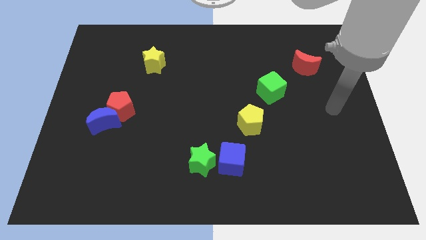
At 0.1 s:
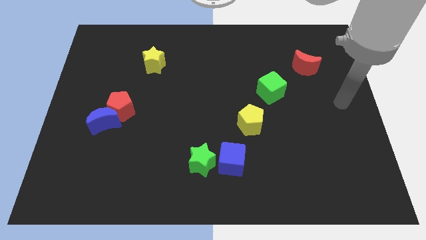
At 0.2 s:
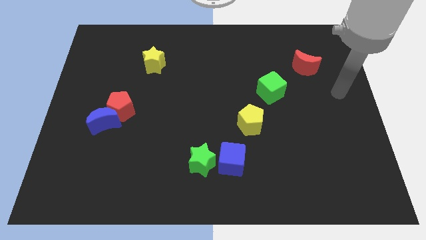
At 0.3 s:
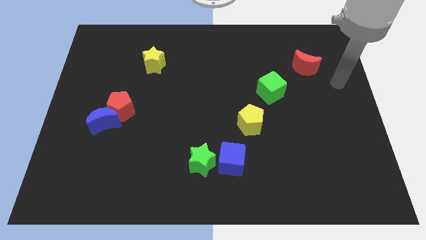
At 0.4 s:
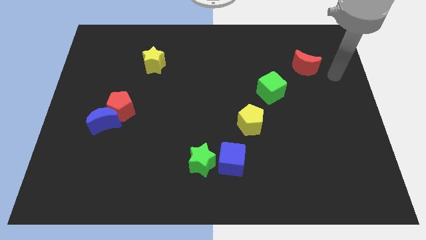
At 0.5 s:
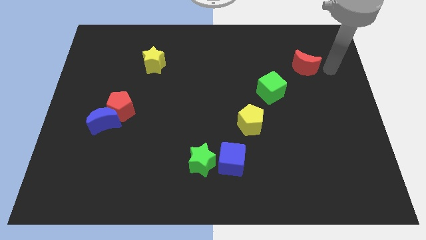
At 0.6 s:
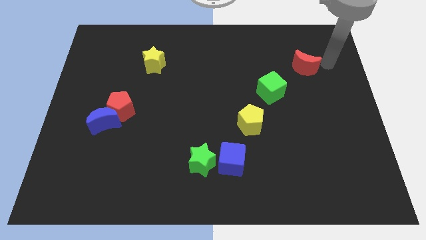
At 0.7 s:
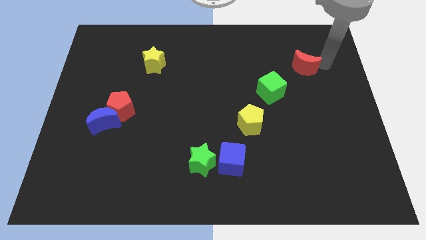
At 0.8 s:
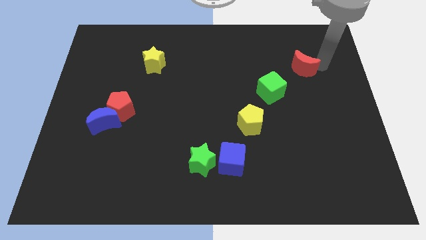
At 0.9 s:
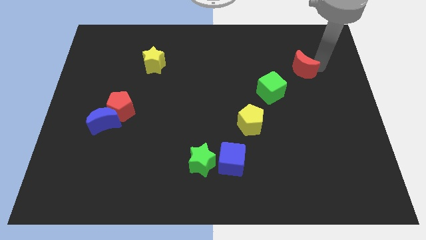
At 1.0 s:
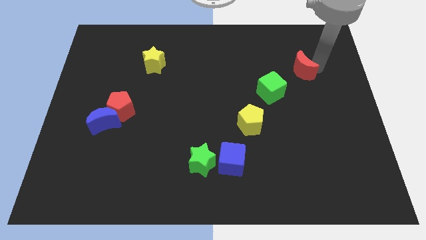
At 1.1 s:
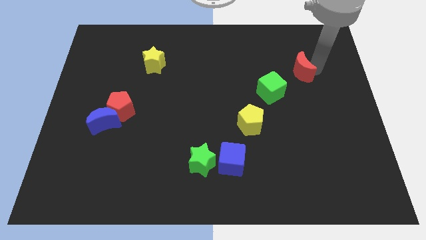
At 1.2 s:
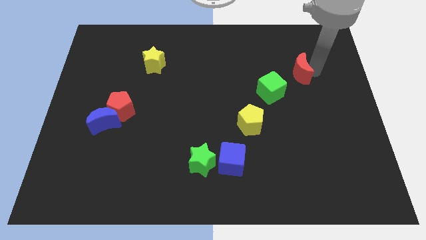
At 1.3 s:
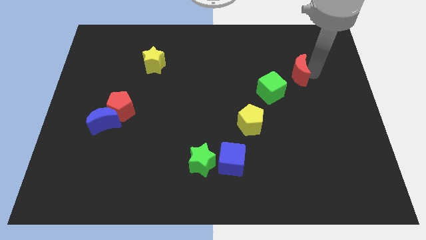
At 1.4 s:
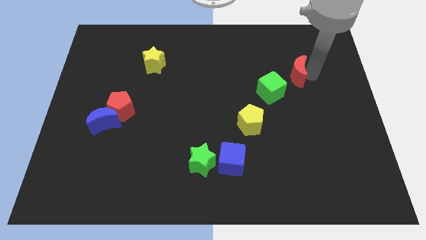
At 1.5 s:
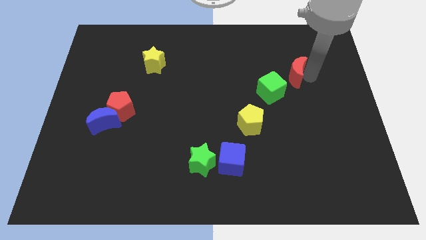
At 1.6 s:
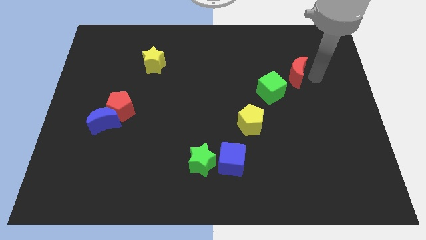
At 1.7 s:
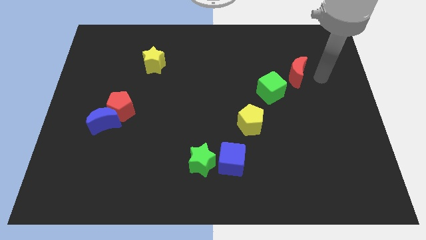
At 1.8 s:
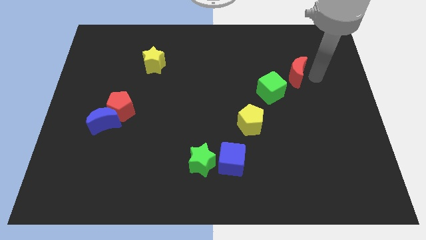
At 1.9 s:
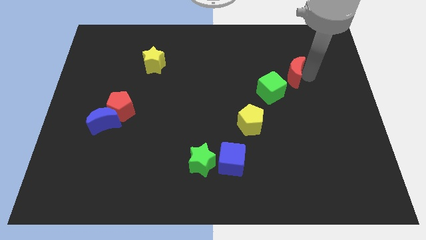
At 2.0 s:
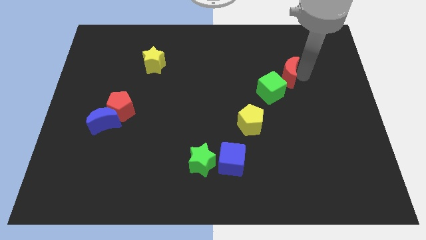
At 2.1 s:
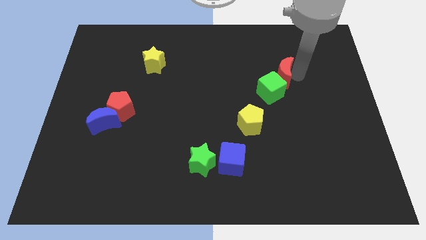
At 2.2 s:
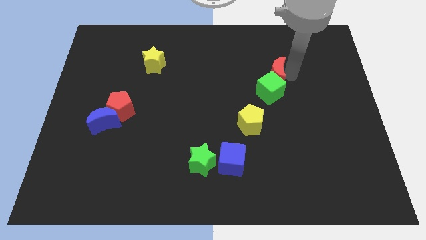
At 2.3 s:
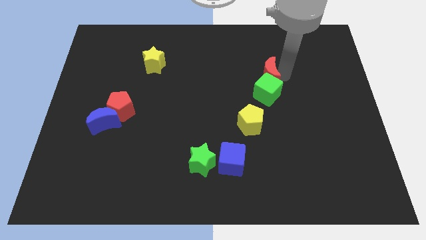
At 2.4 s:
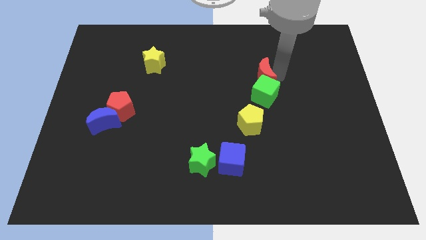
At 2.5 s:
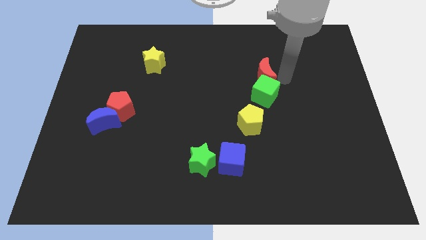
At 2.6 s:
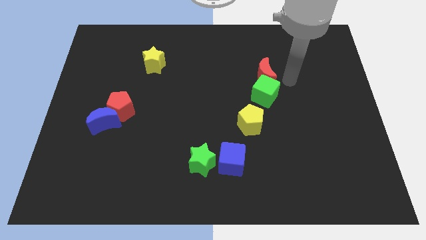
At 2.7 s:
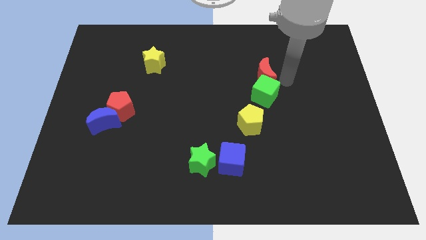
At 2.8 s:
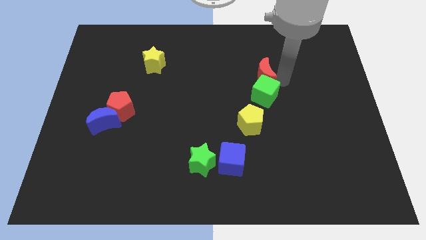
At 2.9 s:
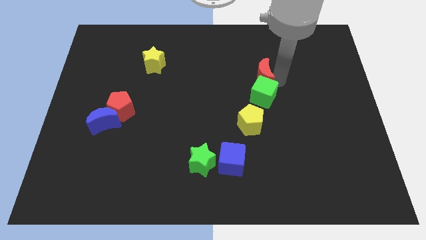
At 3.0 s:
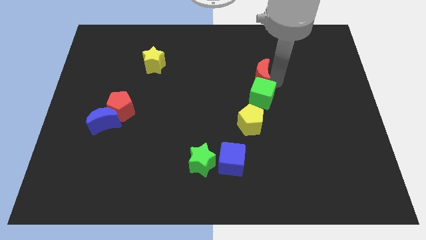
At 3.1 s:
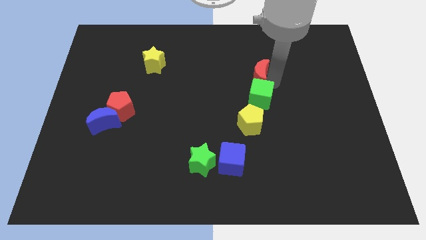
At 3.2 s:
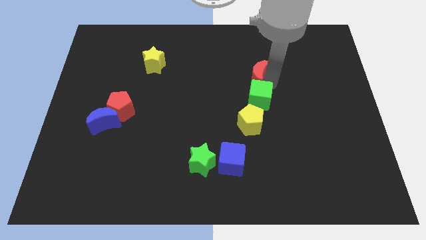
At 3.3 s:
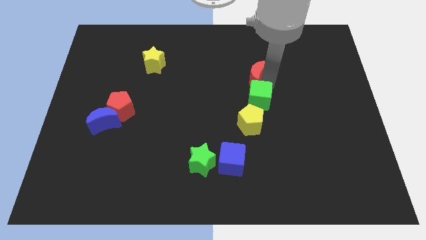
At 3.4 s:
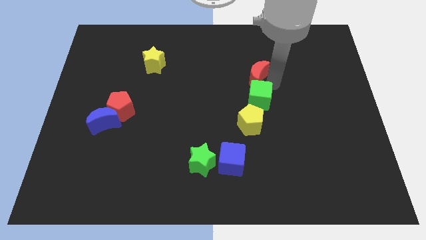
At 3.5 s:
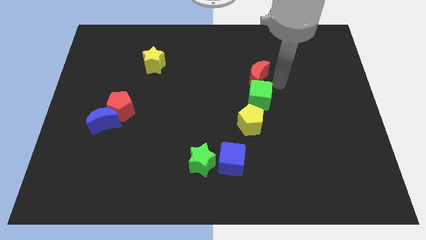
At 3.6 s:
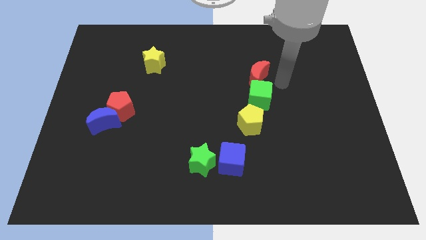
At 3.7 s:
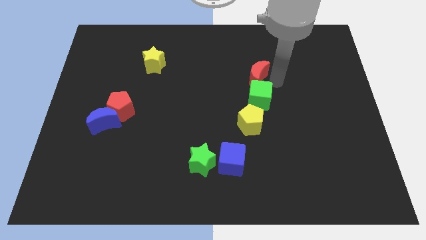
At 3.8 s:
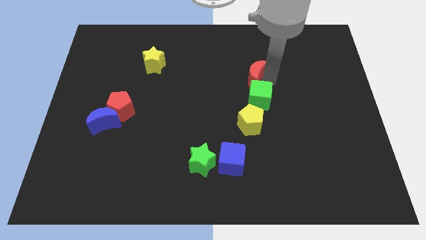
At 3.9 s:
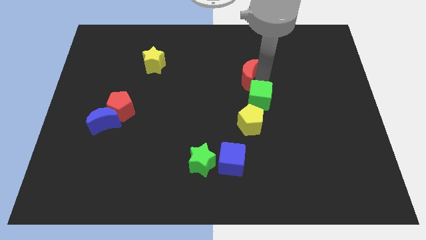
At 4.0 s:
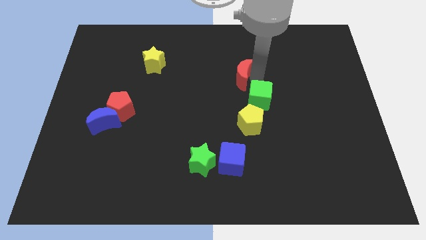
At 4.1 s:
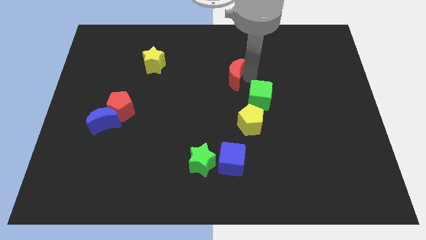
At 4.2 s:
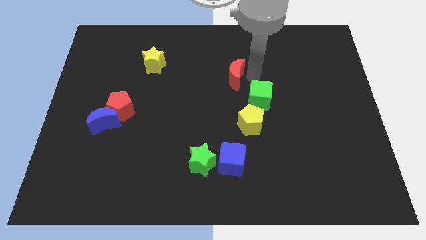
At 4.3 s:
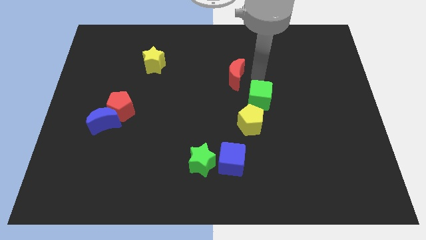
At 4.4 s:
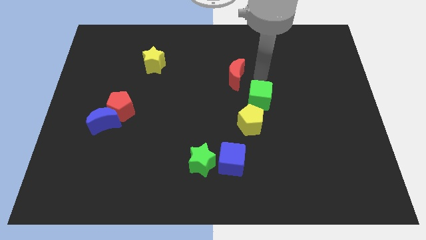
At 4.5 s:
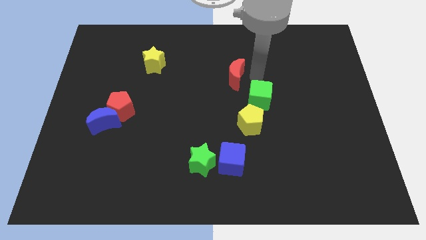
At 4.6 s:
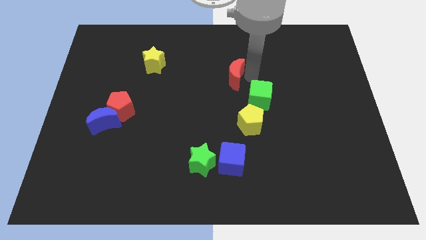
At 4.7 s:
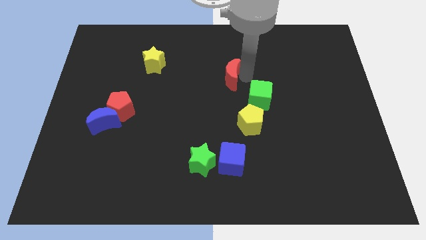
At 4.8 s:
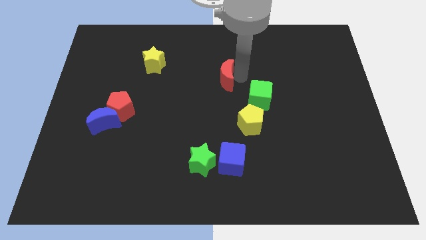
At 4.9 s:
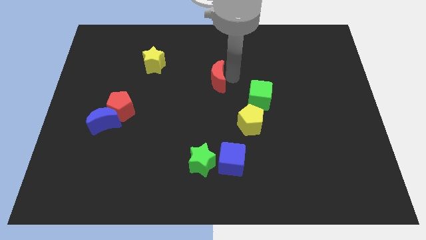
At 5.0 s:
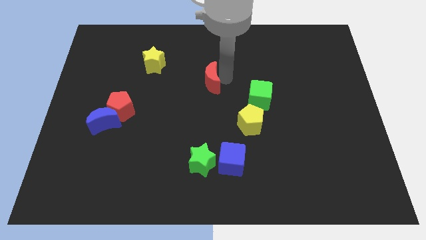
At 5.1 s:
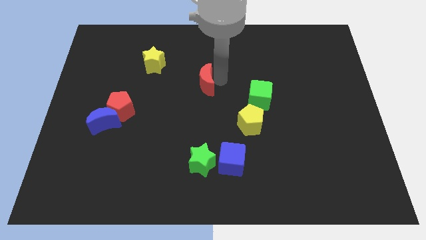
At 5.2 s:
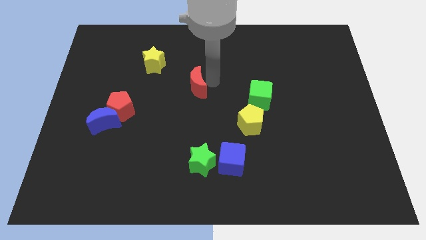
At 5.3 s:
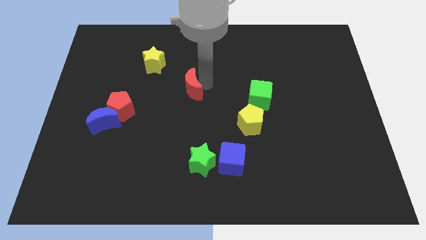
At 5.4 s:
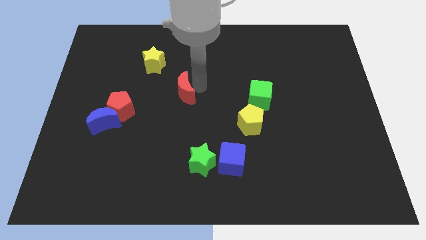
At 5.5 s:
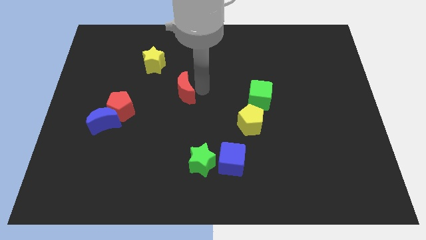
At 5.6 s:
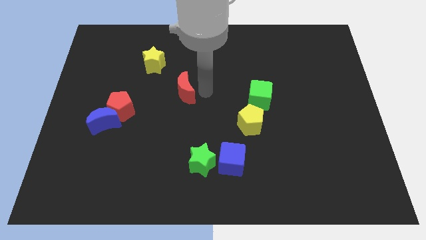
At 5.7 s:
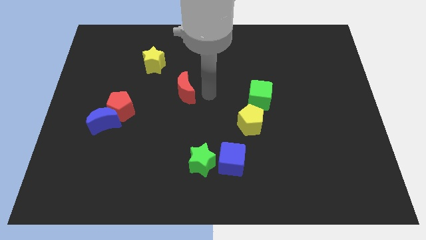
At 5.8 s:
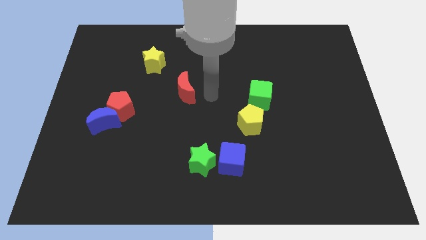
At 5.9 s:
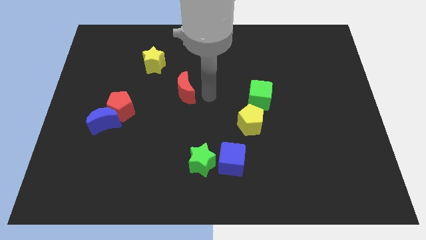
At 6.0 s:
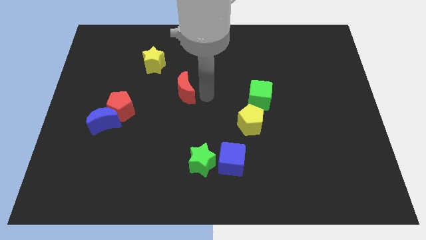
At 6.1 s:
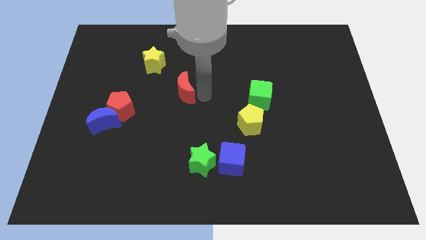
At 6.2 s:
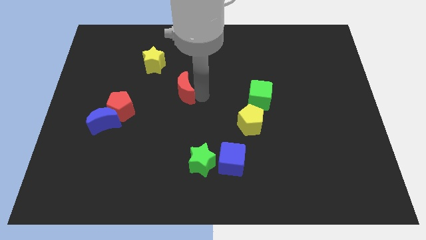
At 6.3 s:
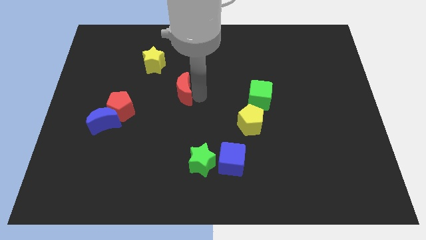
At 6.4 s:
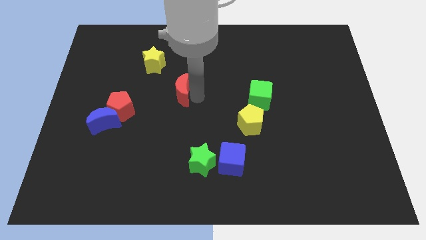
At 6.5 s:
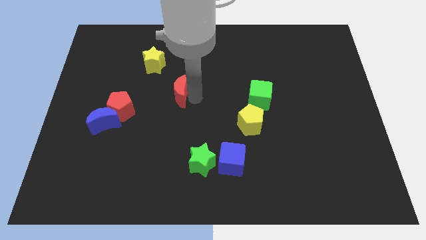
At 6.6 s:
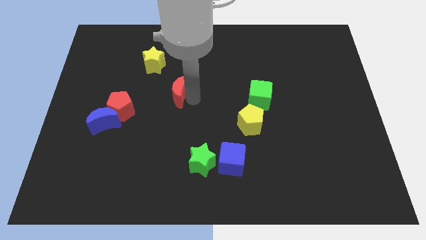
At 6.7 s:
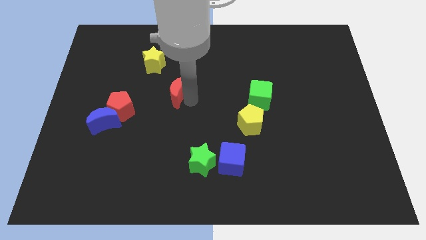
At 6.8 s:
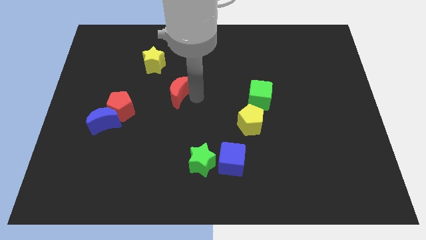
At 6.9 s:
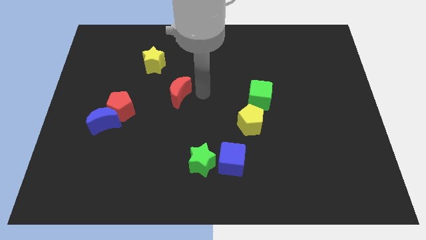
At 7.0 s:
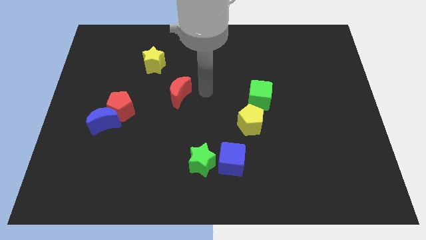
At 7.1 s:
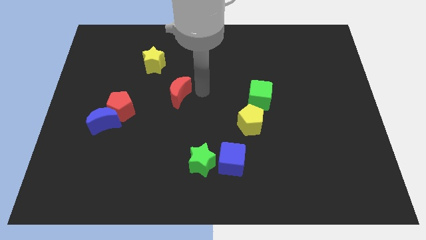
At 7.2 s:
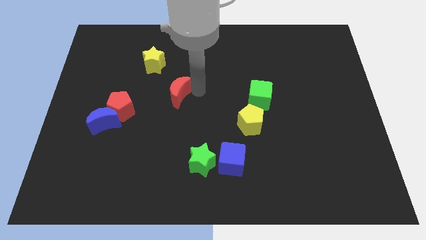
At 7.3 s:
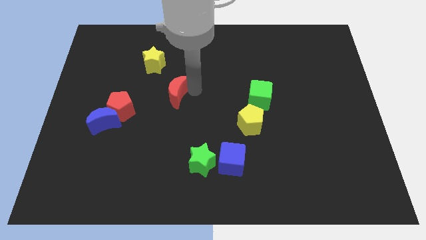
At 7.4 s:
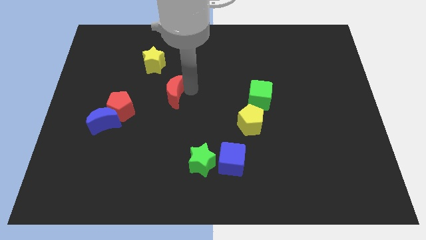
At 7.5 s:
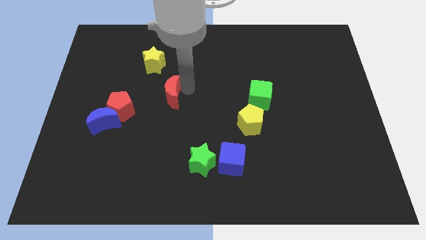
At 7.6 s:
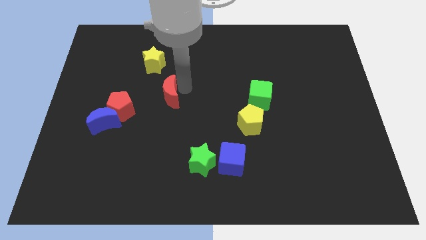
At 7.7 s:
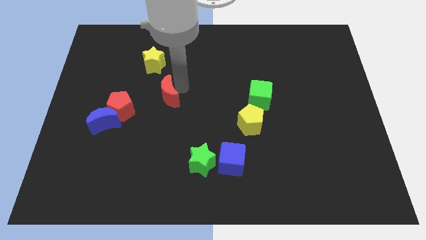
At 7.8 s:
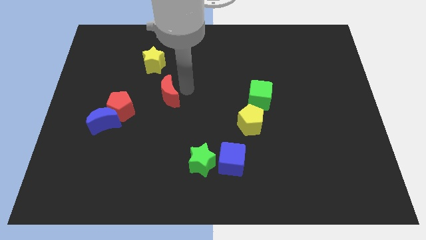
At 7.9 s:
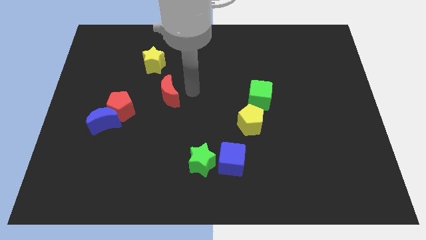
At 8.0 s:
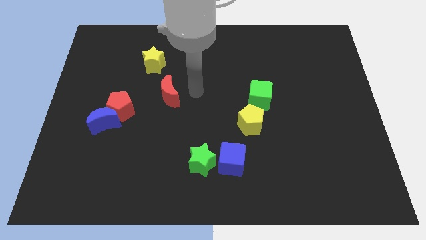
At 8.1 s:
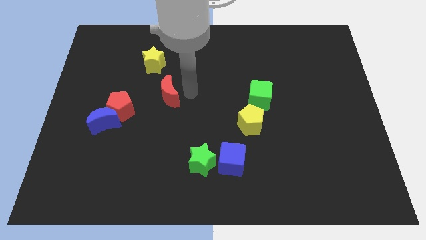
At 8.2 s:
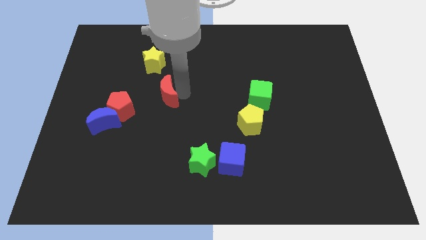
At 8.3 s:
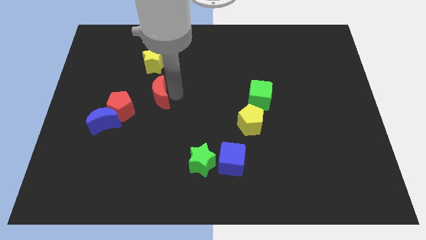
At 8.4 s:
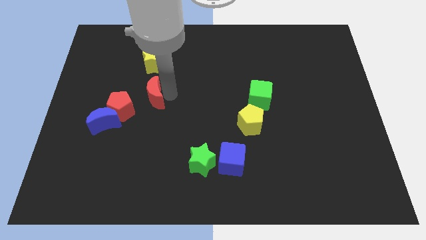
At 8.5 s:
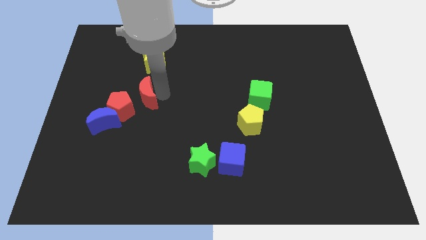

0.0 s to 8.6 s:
push the red moon to the top right of the blue moon
